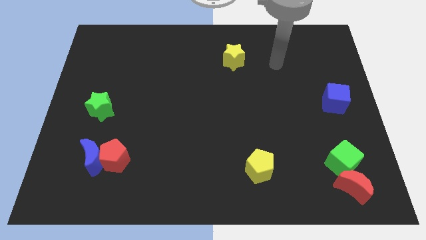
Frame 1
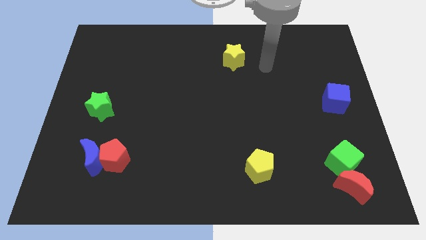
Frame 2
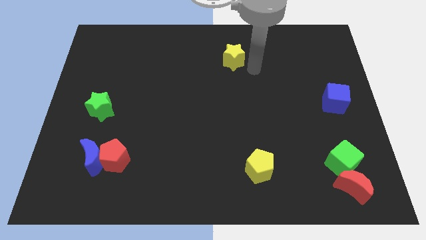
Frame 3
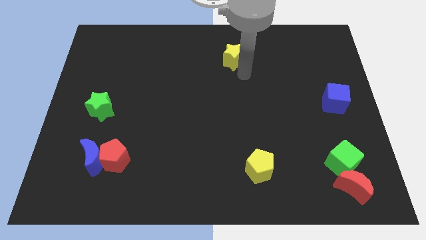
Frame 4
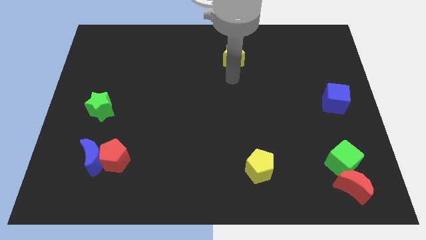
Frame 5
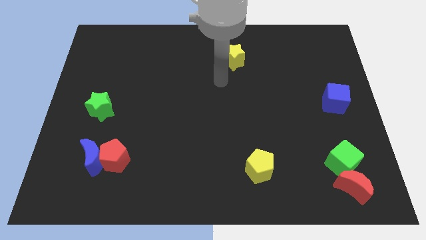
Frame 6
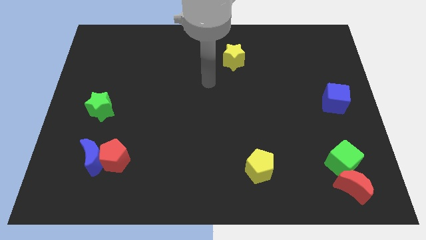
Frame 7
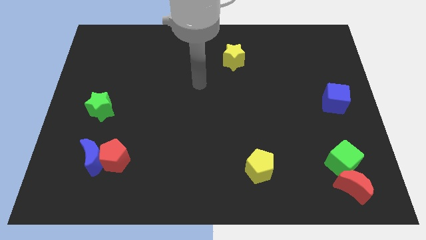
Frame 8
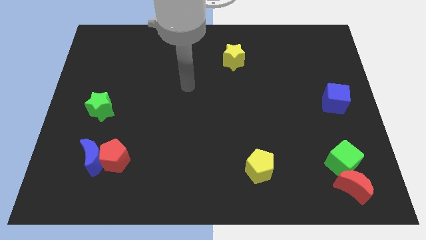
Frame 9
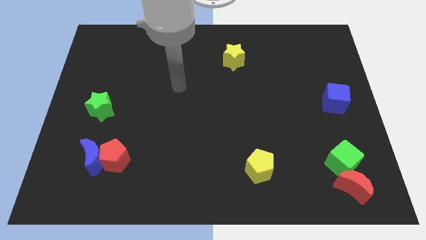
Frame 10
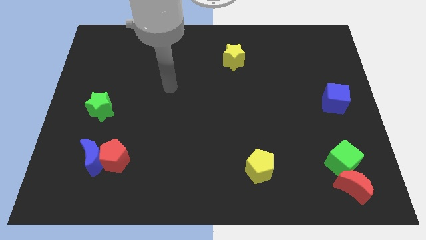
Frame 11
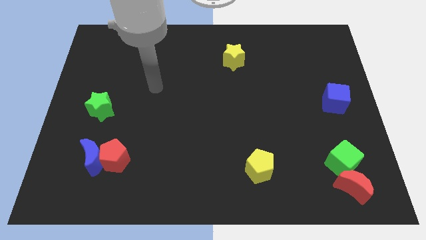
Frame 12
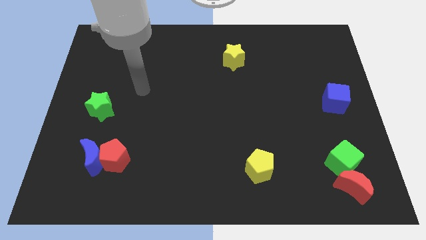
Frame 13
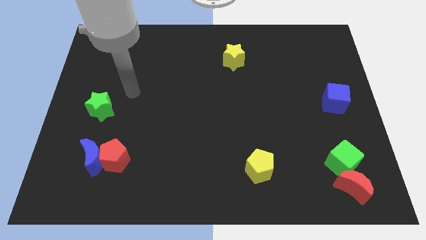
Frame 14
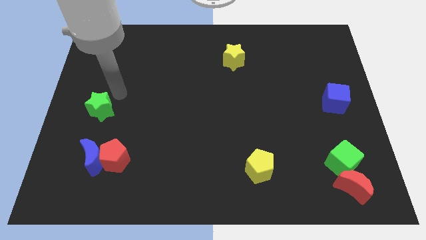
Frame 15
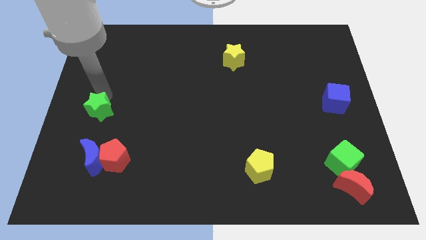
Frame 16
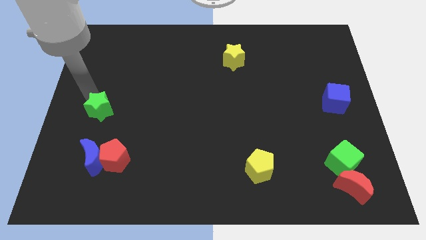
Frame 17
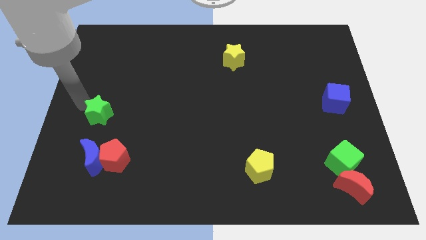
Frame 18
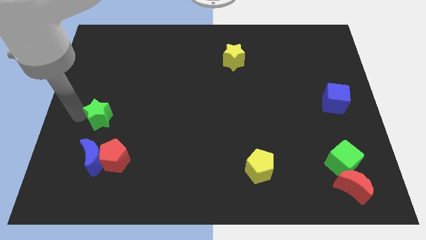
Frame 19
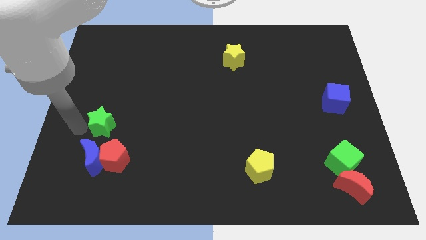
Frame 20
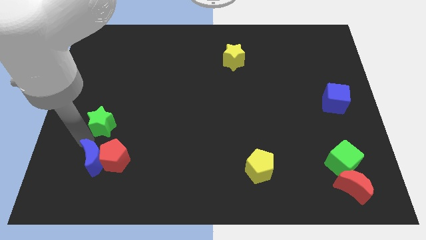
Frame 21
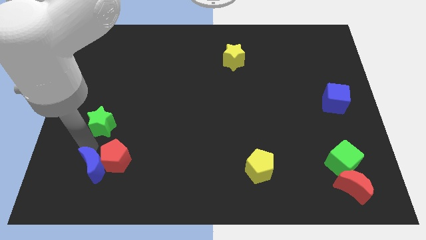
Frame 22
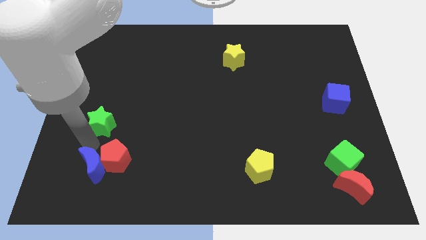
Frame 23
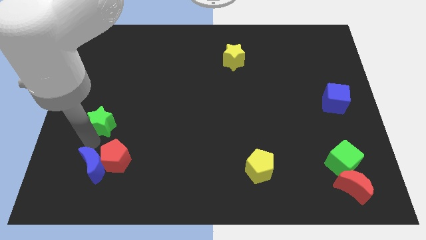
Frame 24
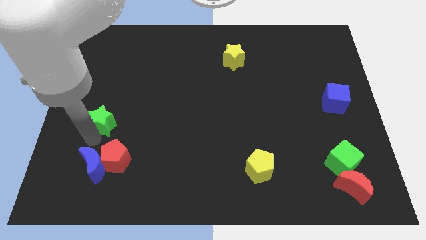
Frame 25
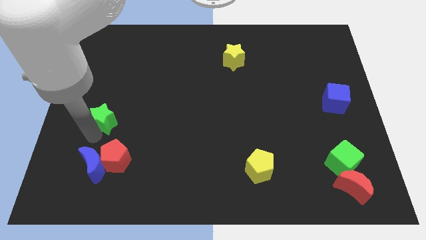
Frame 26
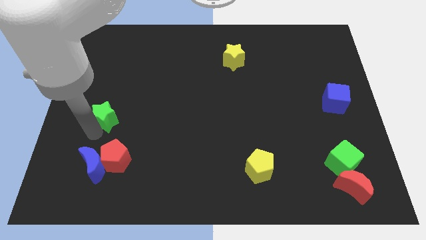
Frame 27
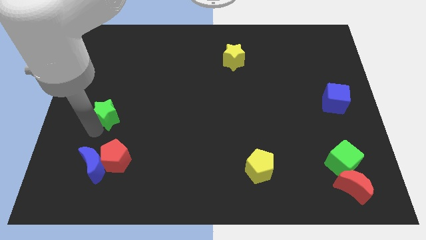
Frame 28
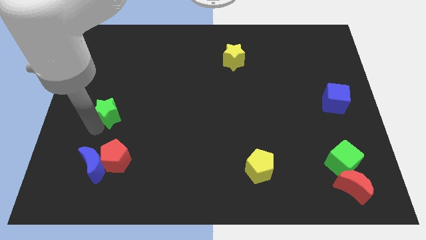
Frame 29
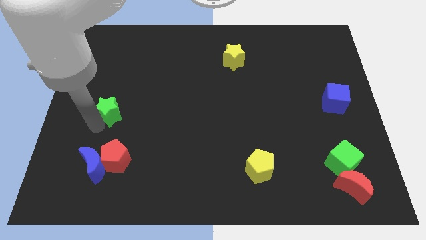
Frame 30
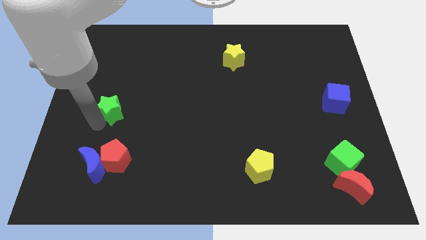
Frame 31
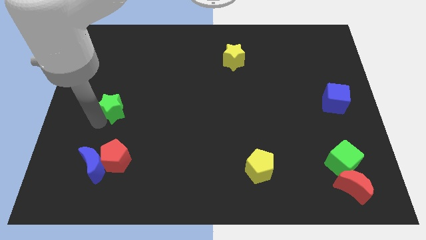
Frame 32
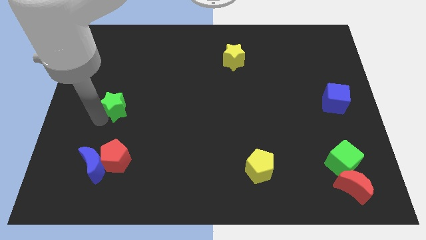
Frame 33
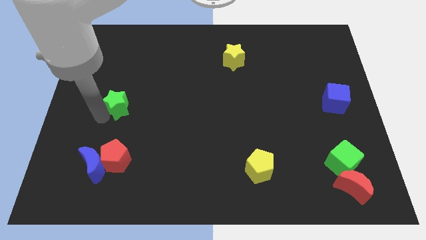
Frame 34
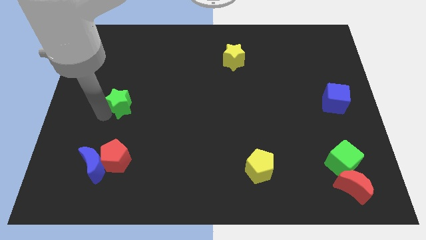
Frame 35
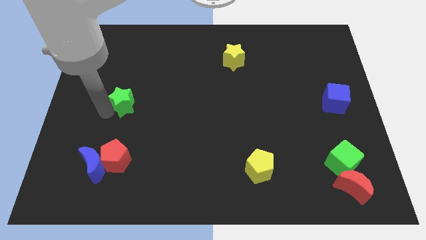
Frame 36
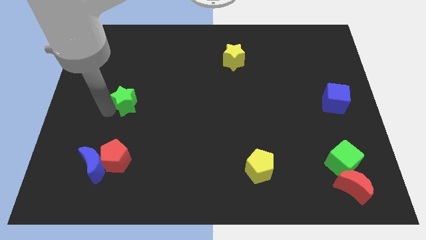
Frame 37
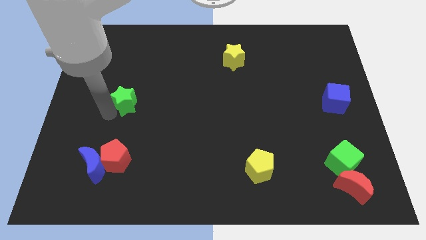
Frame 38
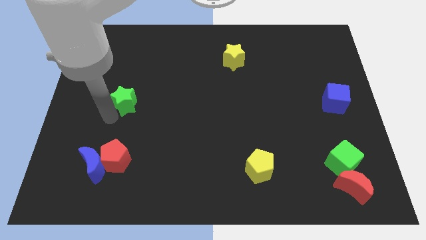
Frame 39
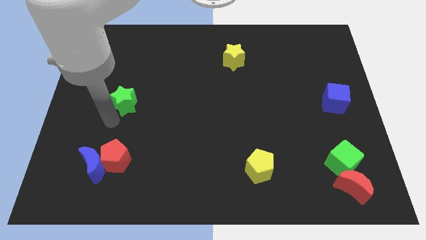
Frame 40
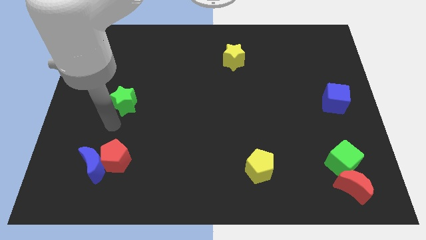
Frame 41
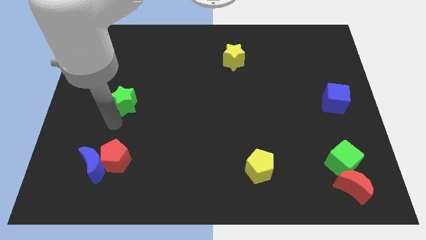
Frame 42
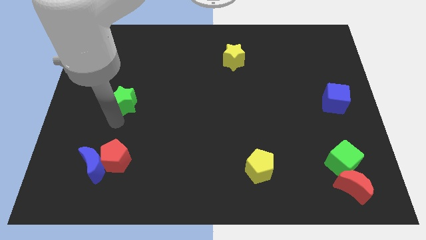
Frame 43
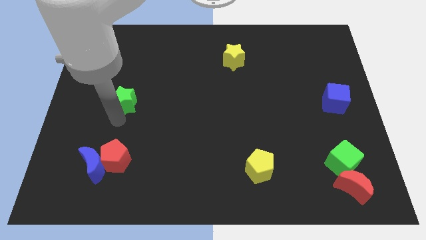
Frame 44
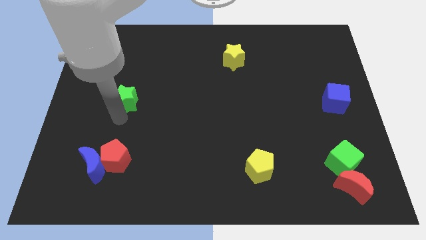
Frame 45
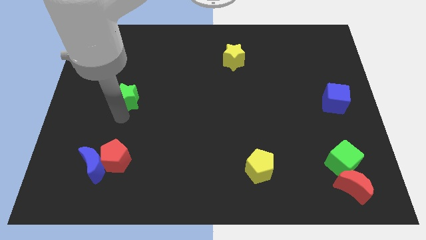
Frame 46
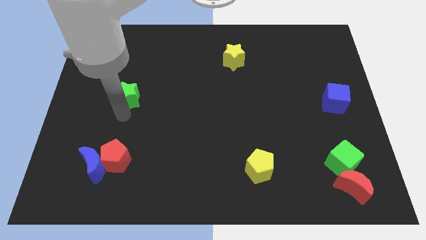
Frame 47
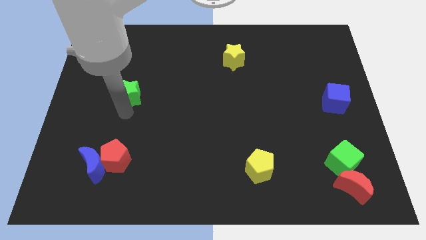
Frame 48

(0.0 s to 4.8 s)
push the green star upwards and to the right diagonally a bit

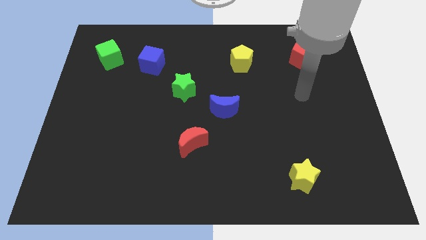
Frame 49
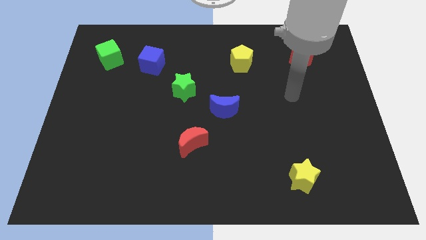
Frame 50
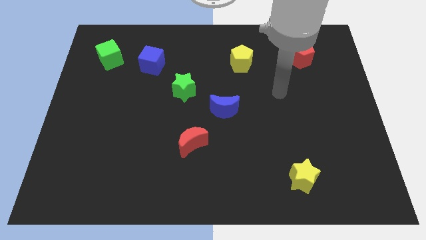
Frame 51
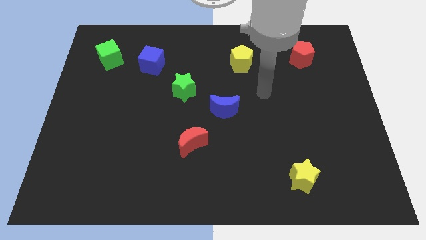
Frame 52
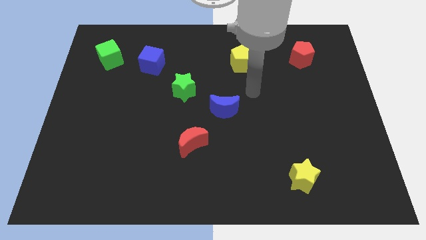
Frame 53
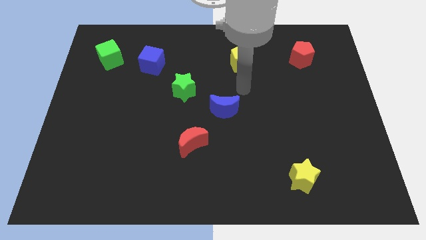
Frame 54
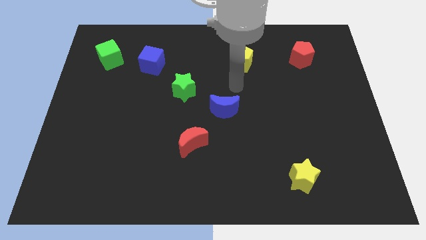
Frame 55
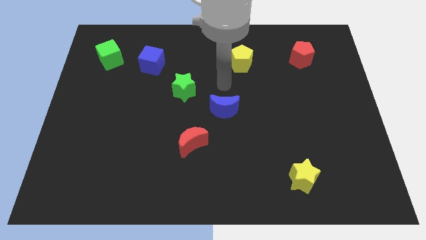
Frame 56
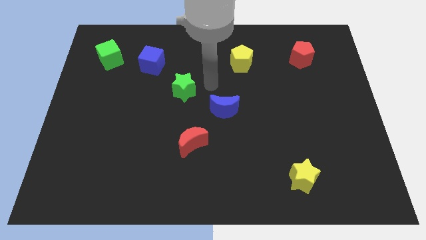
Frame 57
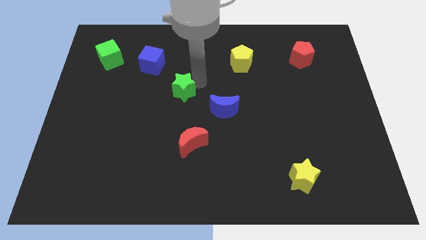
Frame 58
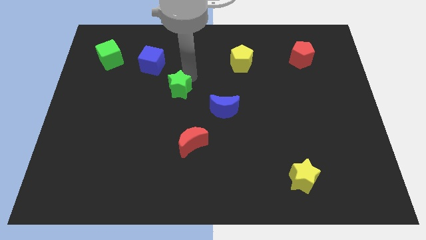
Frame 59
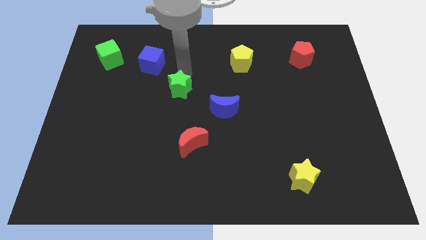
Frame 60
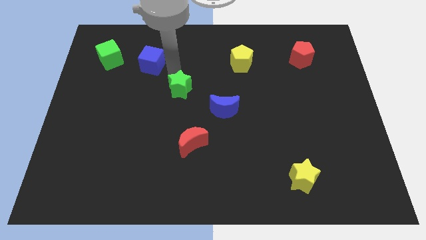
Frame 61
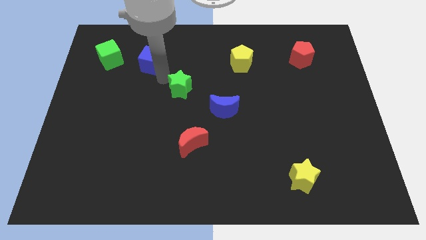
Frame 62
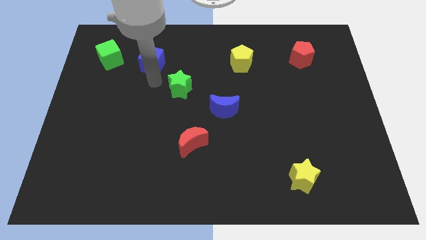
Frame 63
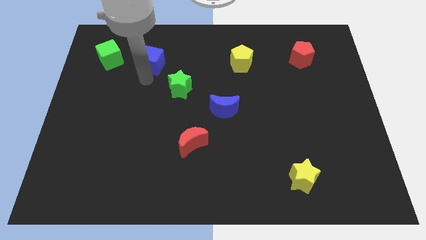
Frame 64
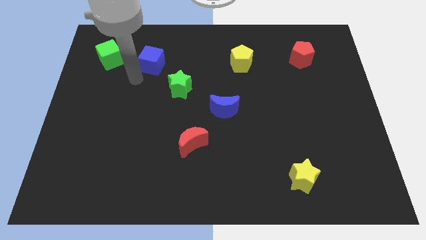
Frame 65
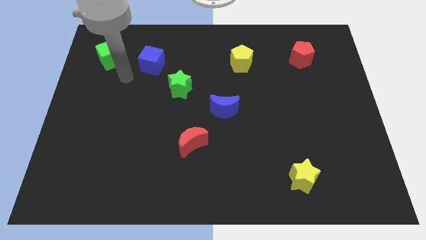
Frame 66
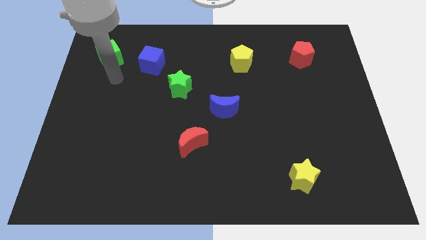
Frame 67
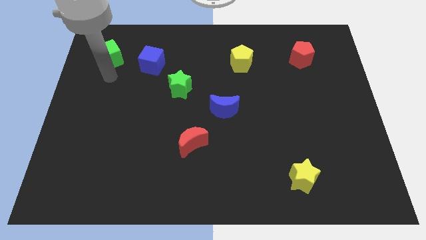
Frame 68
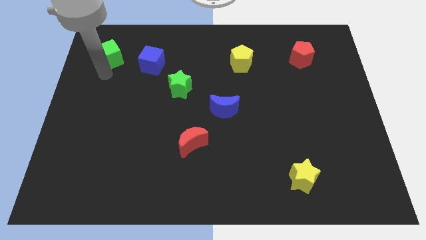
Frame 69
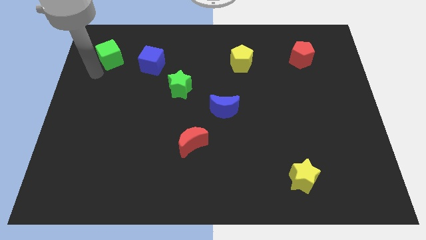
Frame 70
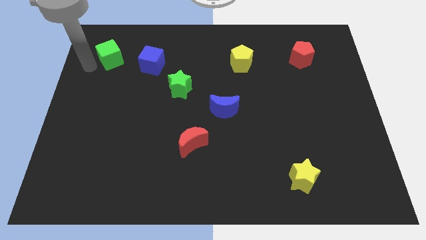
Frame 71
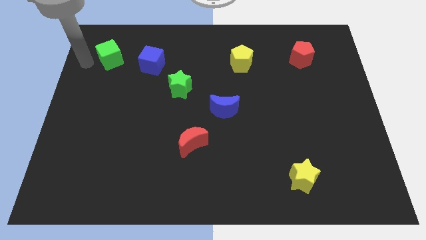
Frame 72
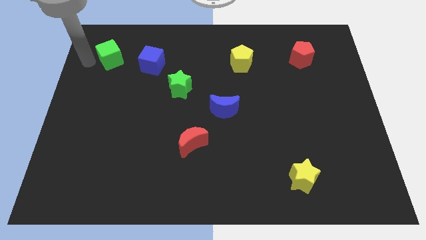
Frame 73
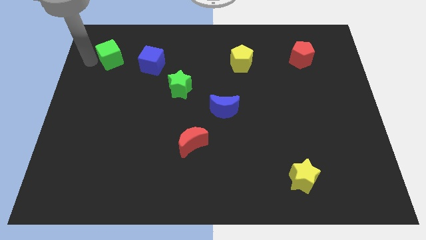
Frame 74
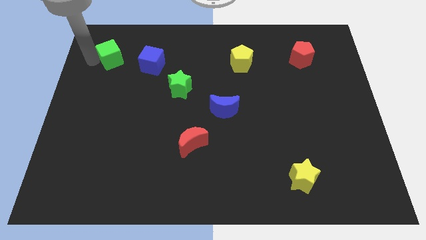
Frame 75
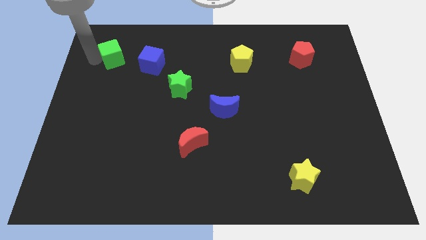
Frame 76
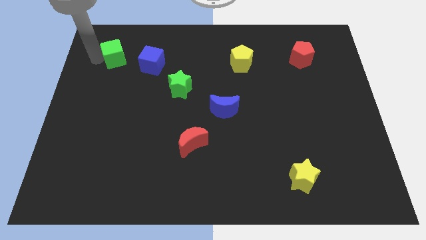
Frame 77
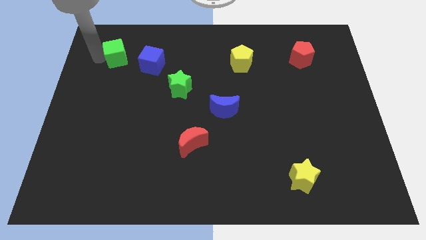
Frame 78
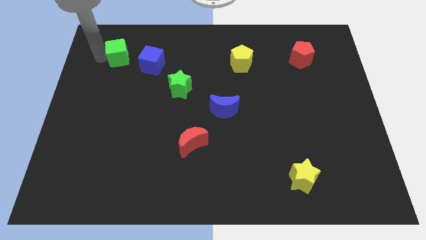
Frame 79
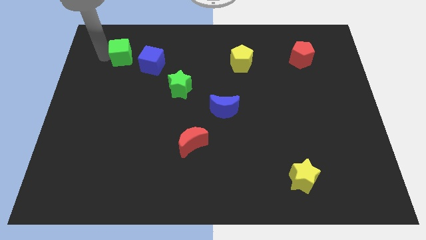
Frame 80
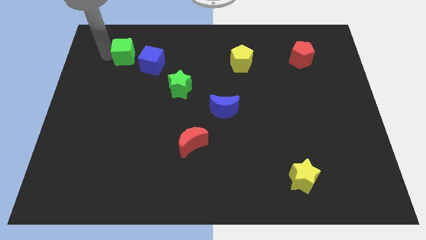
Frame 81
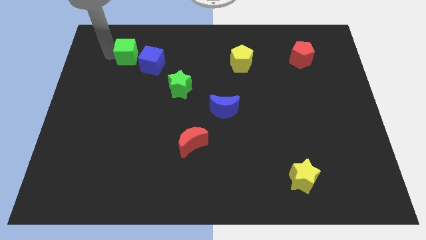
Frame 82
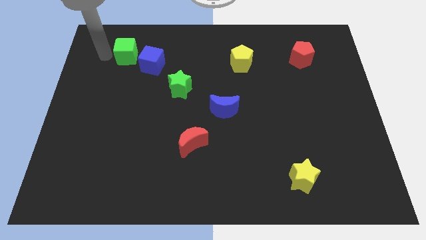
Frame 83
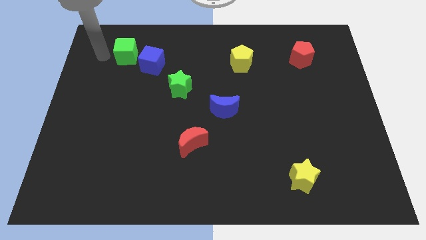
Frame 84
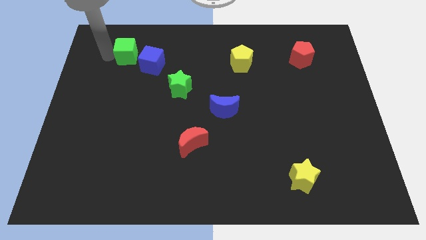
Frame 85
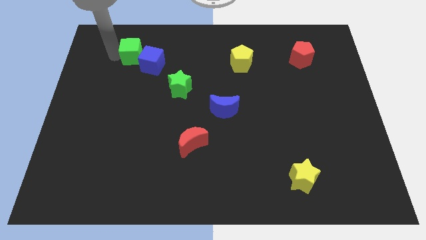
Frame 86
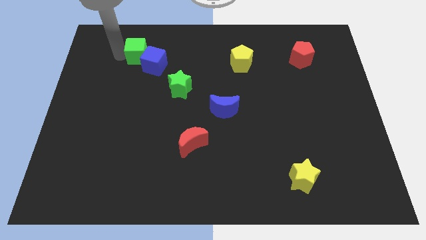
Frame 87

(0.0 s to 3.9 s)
push the green cube a little bit right
